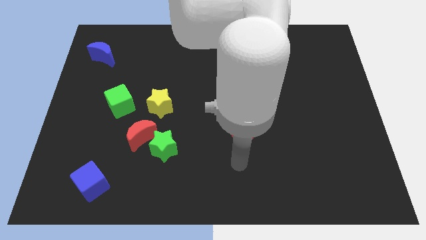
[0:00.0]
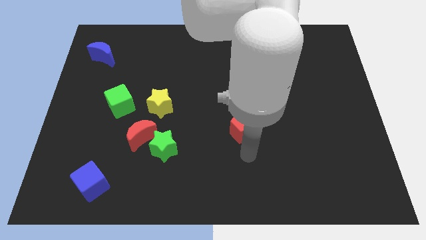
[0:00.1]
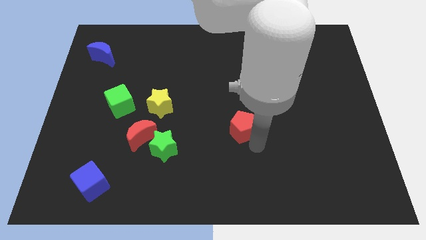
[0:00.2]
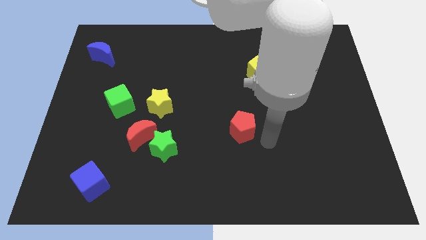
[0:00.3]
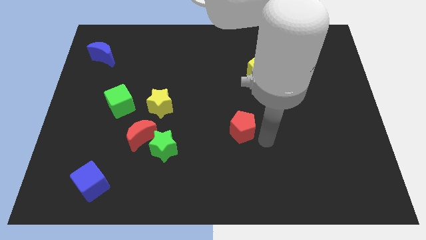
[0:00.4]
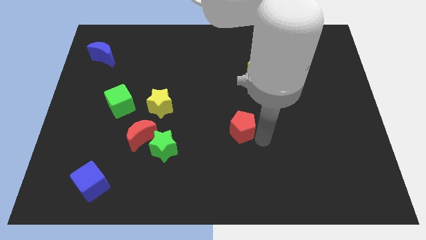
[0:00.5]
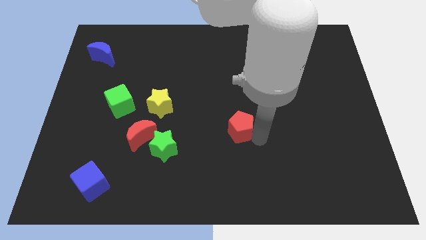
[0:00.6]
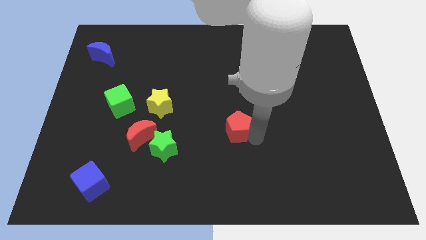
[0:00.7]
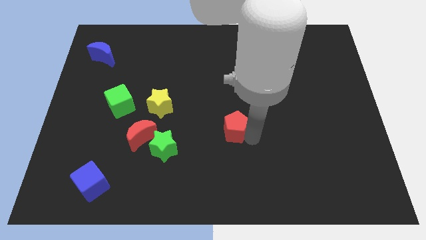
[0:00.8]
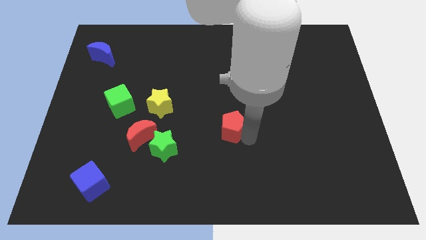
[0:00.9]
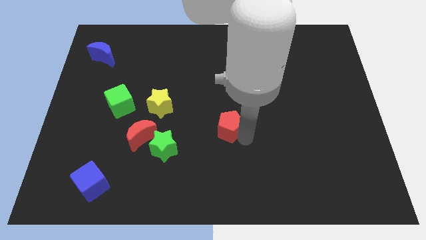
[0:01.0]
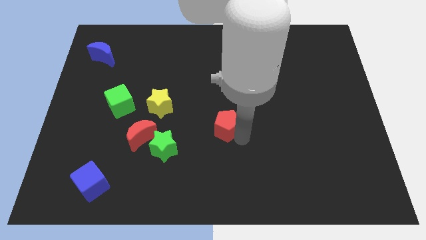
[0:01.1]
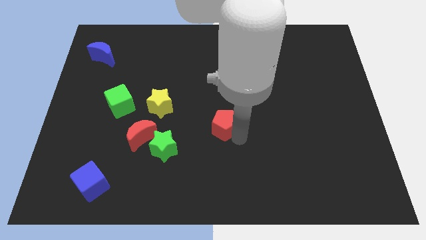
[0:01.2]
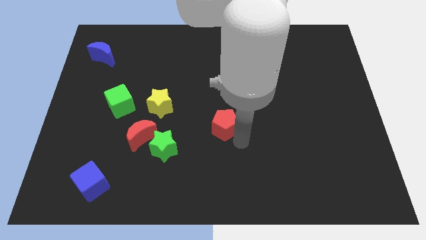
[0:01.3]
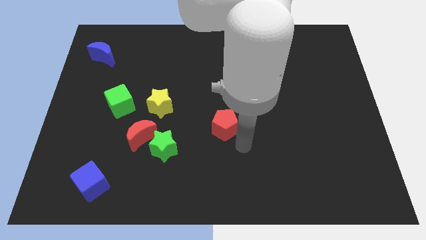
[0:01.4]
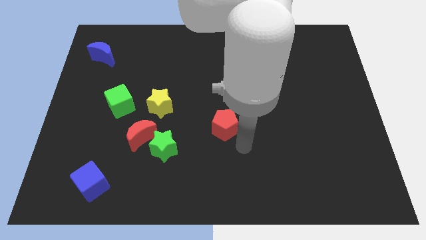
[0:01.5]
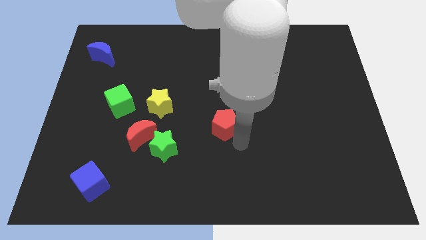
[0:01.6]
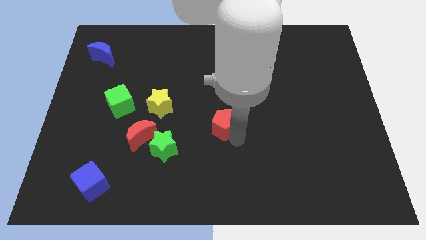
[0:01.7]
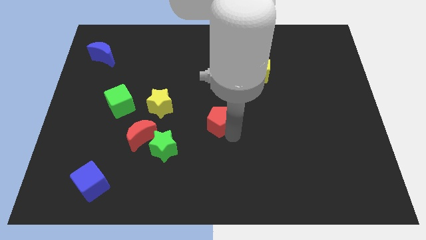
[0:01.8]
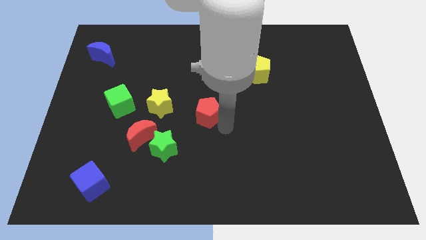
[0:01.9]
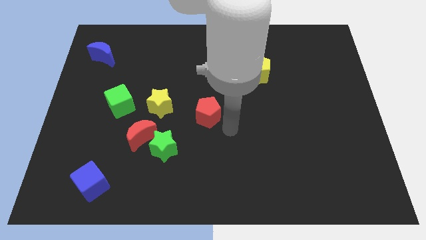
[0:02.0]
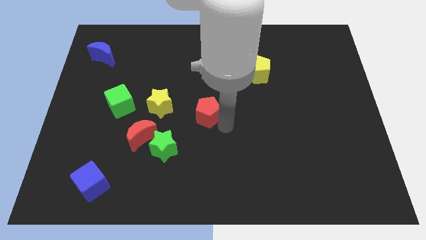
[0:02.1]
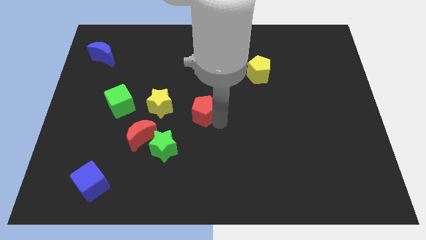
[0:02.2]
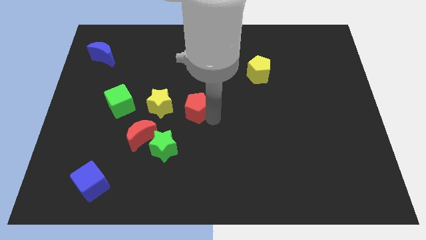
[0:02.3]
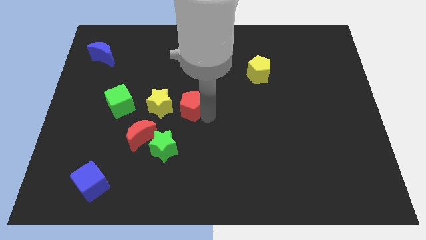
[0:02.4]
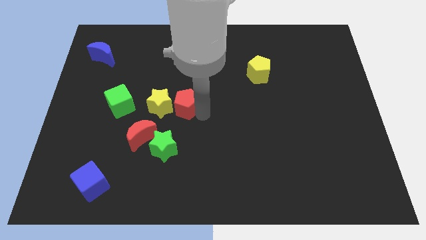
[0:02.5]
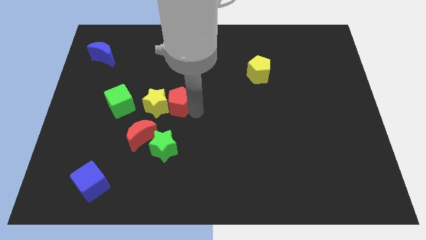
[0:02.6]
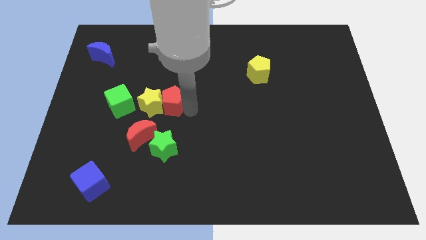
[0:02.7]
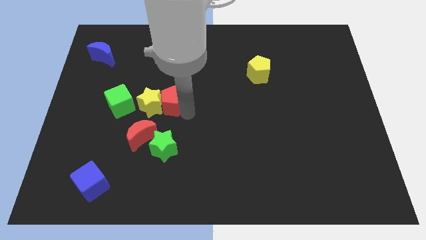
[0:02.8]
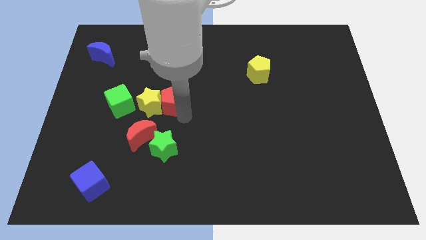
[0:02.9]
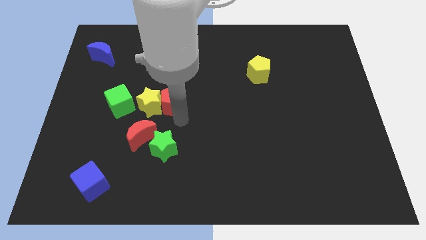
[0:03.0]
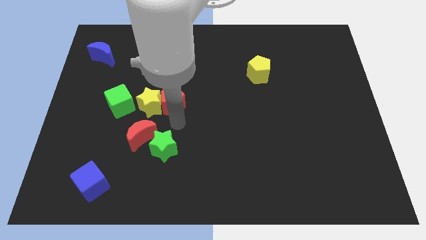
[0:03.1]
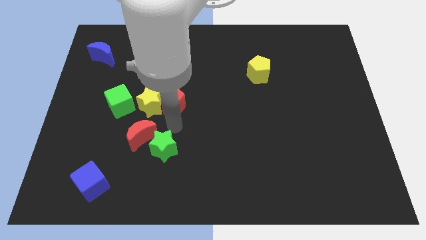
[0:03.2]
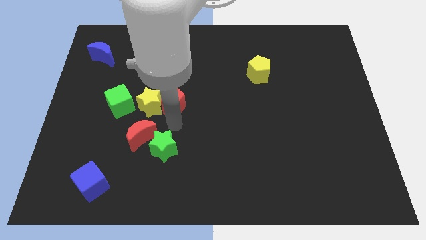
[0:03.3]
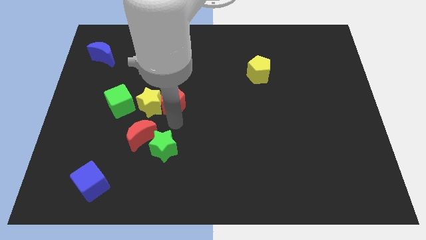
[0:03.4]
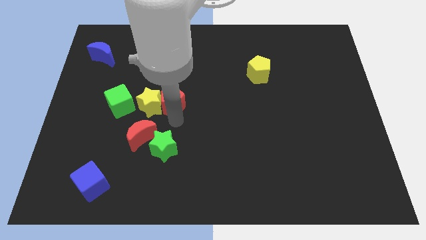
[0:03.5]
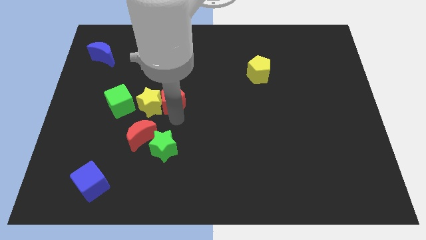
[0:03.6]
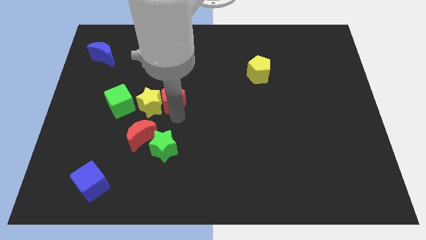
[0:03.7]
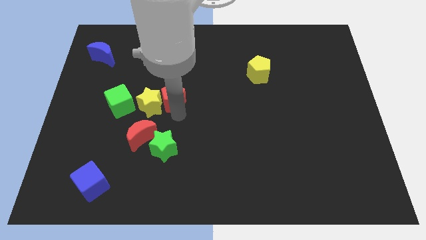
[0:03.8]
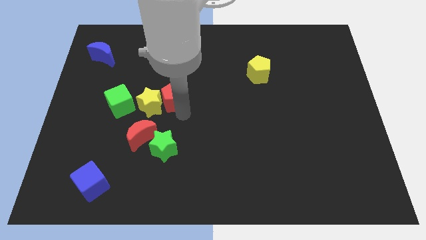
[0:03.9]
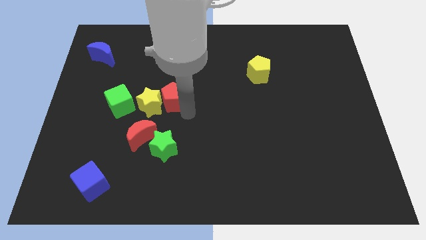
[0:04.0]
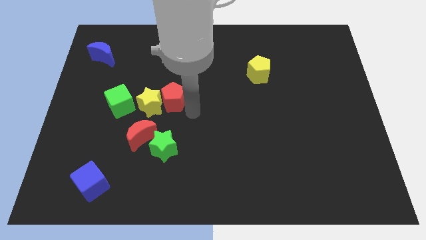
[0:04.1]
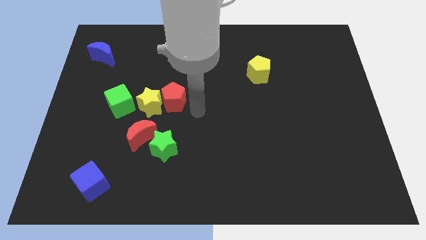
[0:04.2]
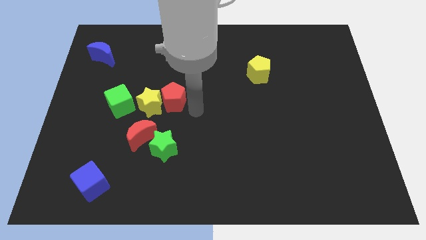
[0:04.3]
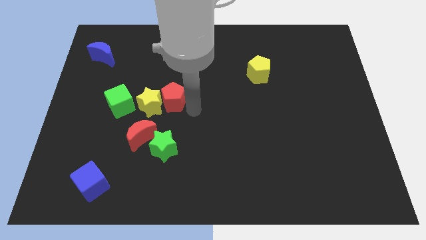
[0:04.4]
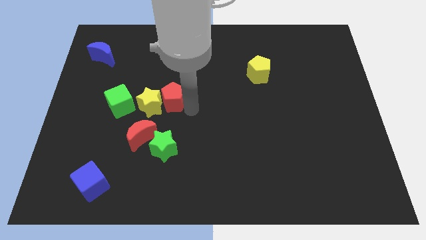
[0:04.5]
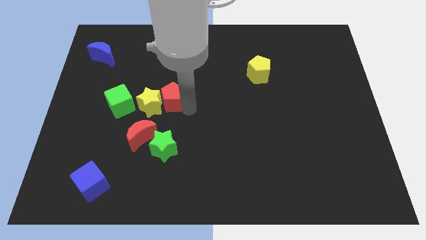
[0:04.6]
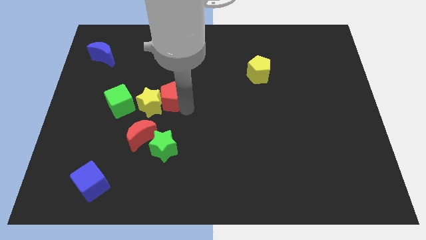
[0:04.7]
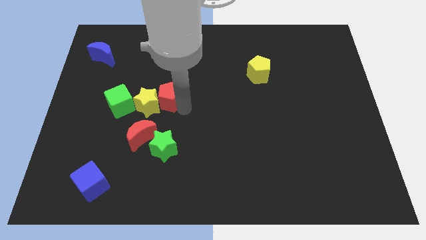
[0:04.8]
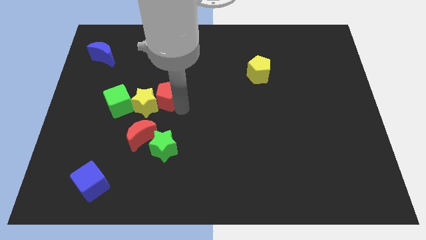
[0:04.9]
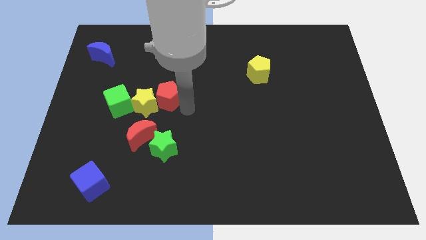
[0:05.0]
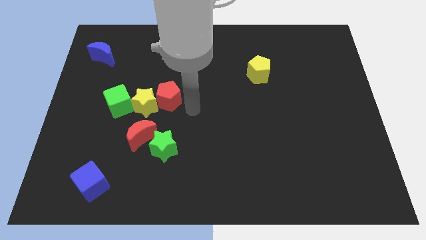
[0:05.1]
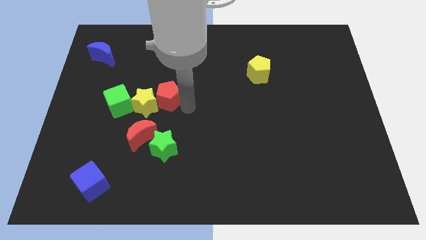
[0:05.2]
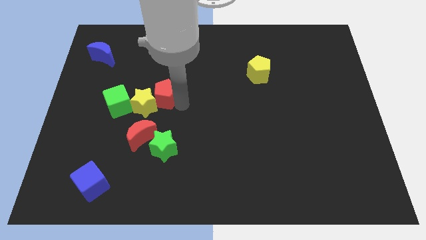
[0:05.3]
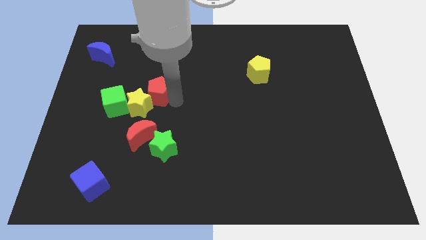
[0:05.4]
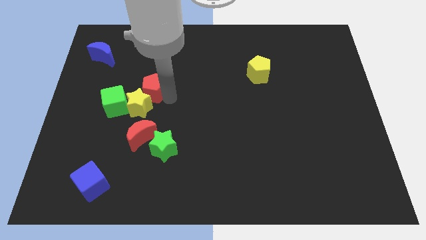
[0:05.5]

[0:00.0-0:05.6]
put the red pentagon to the top right of the green cube

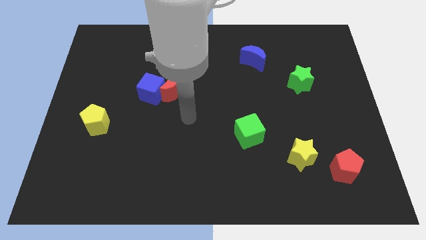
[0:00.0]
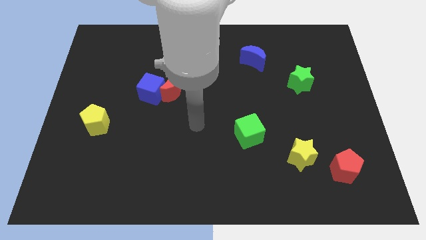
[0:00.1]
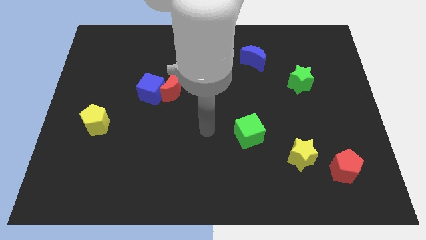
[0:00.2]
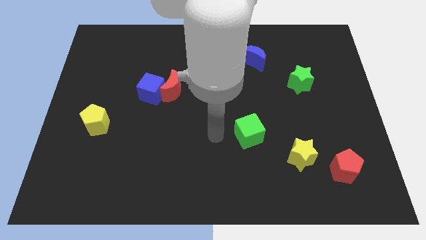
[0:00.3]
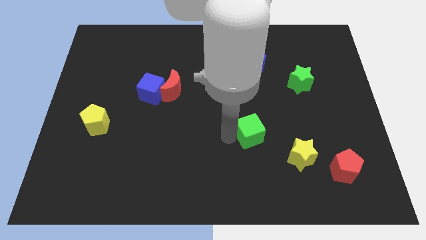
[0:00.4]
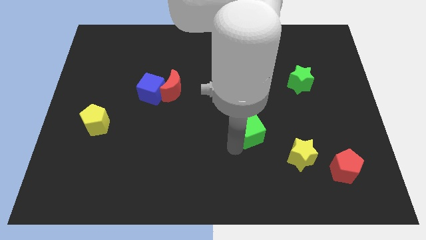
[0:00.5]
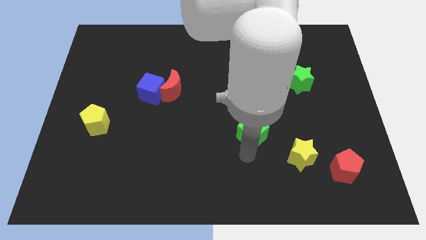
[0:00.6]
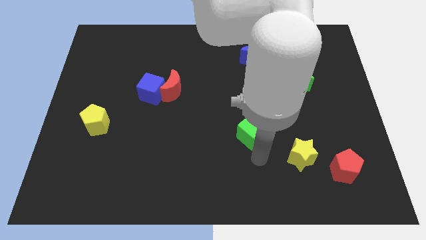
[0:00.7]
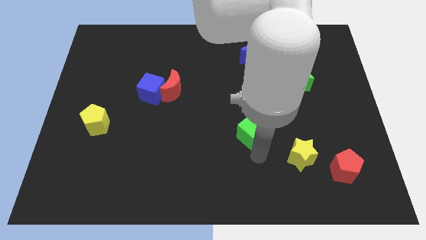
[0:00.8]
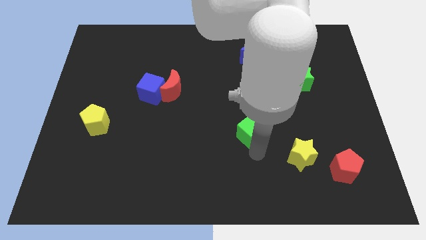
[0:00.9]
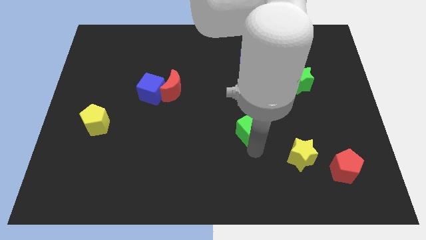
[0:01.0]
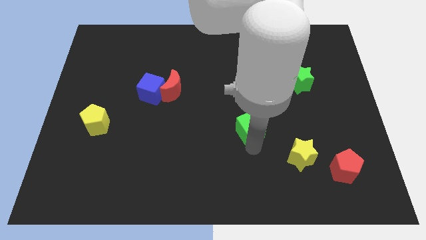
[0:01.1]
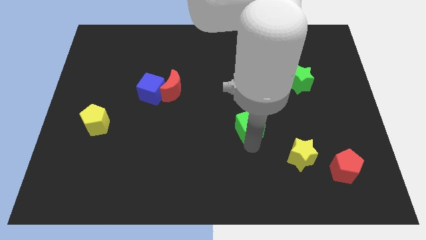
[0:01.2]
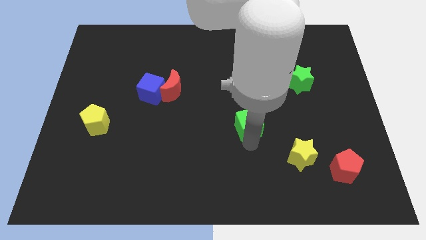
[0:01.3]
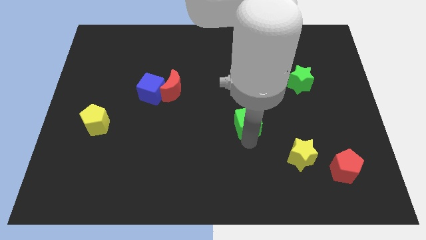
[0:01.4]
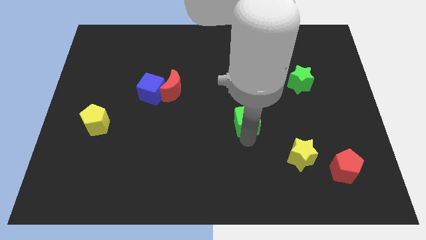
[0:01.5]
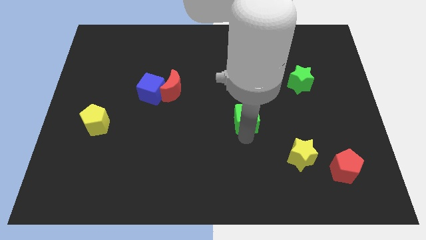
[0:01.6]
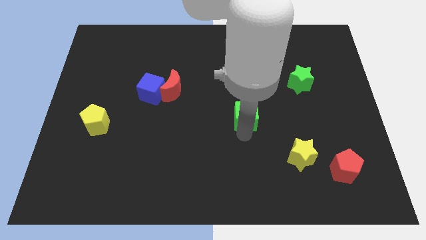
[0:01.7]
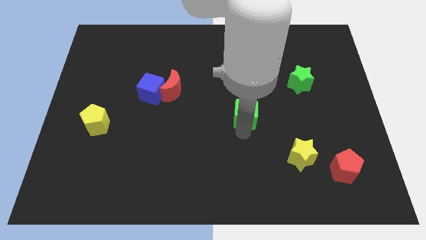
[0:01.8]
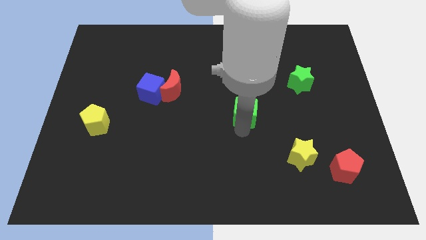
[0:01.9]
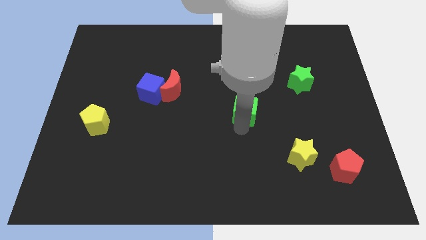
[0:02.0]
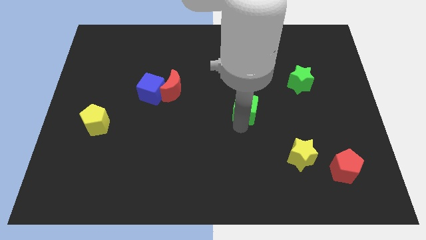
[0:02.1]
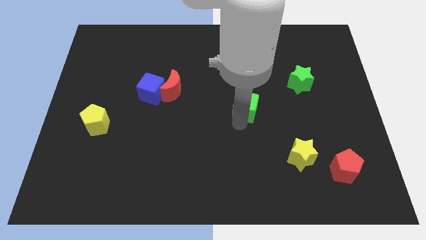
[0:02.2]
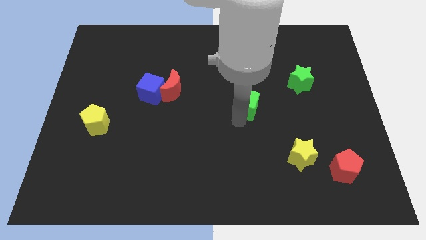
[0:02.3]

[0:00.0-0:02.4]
slide the green cube below the blue moon
